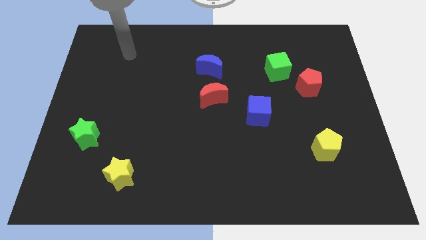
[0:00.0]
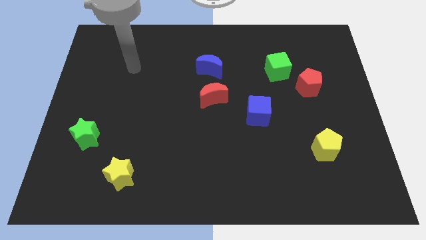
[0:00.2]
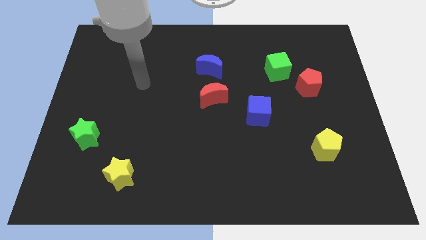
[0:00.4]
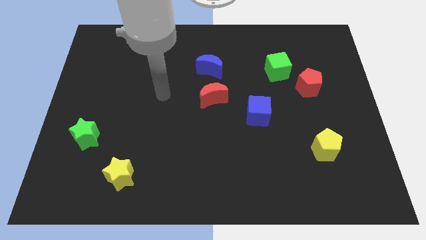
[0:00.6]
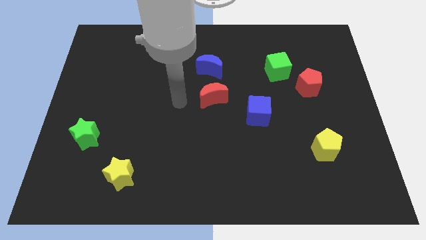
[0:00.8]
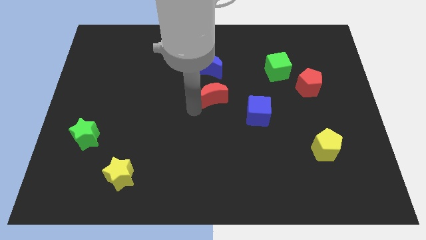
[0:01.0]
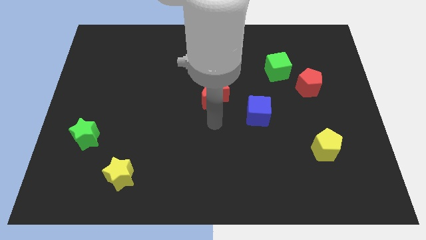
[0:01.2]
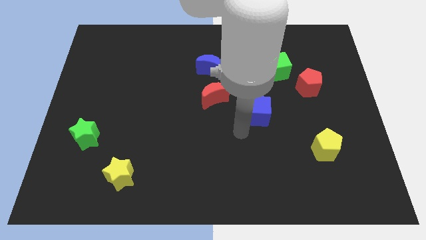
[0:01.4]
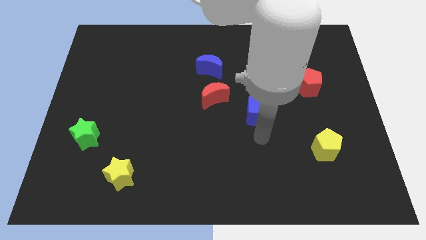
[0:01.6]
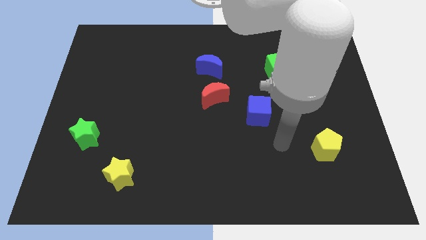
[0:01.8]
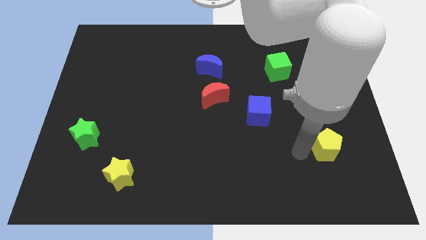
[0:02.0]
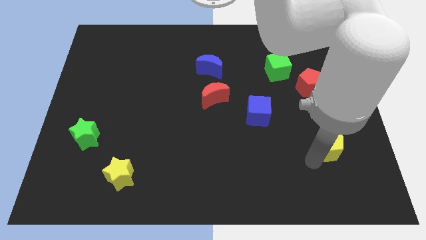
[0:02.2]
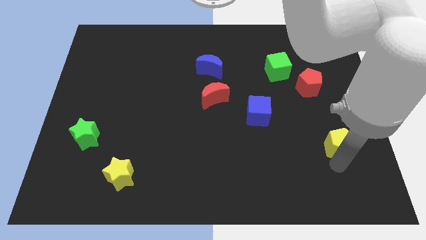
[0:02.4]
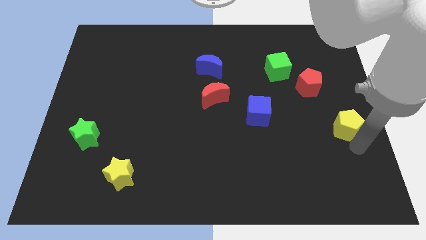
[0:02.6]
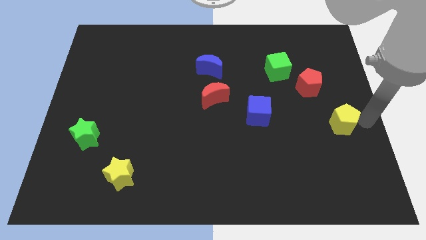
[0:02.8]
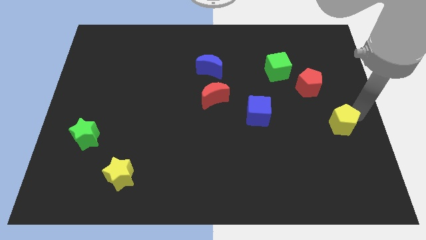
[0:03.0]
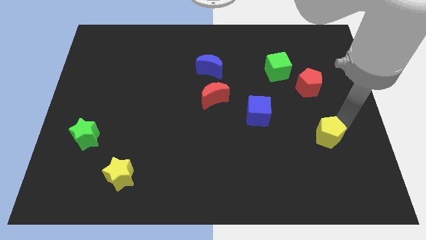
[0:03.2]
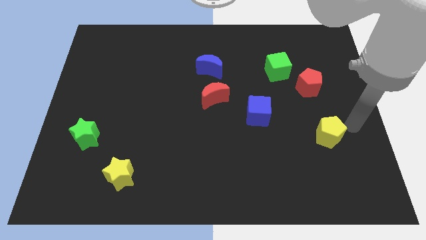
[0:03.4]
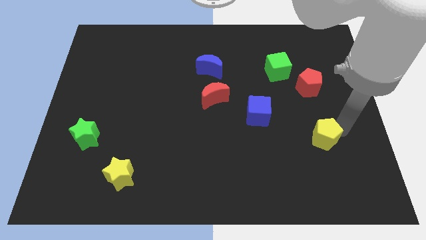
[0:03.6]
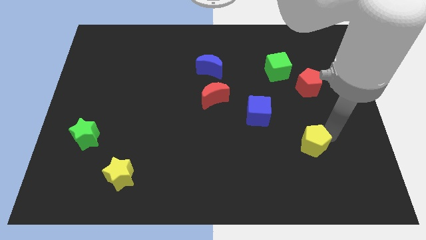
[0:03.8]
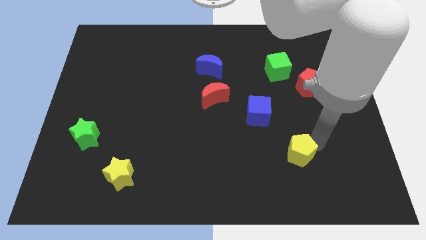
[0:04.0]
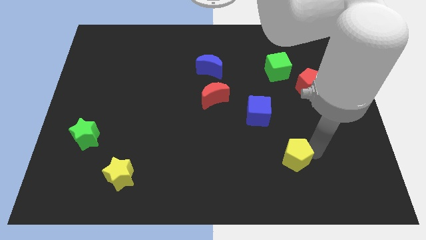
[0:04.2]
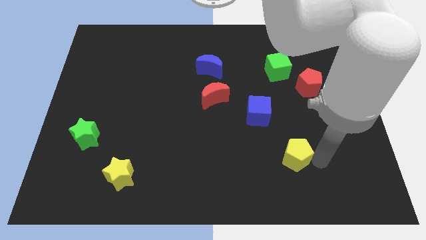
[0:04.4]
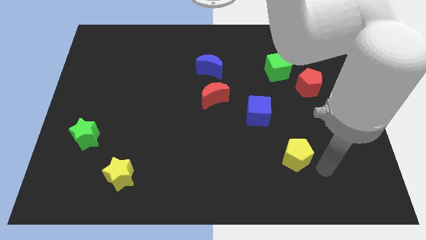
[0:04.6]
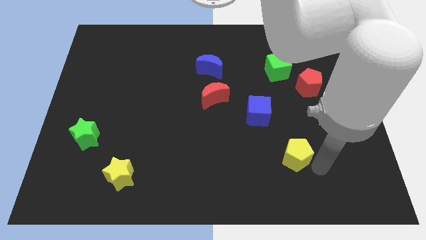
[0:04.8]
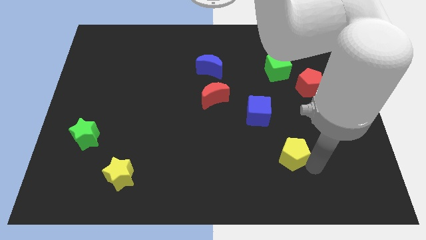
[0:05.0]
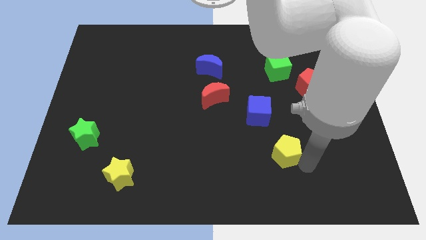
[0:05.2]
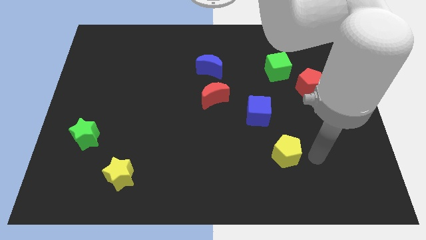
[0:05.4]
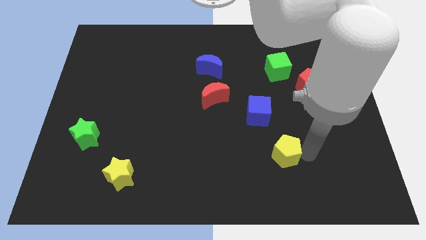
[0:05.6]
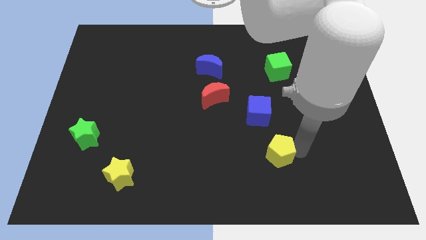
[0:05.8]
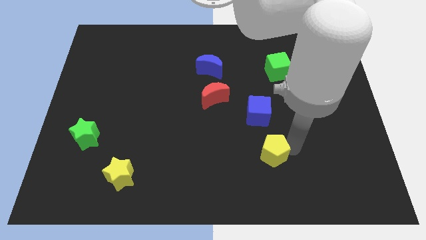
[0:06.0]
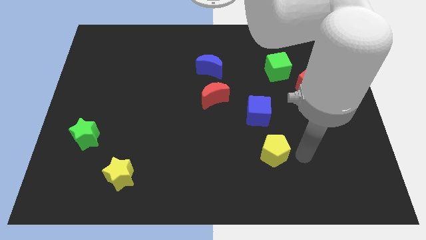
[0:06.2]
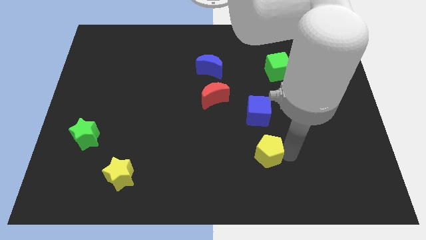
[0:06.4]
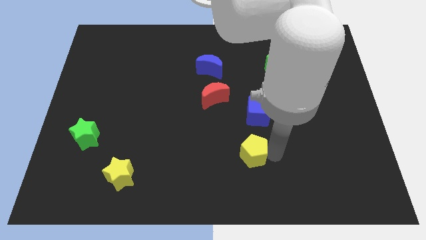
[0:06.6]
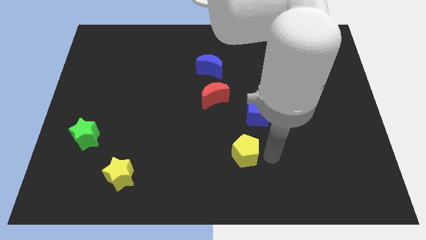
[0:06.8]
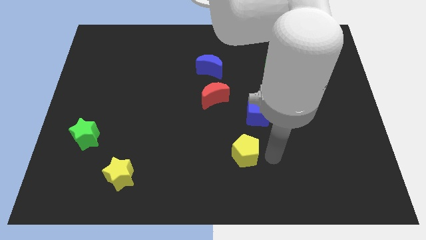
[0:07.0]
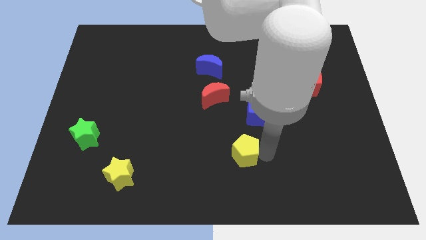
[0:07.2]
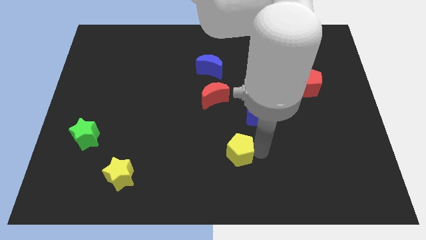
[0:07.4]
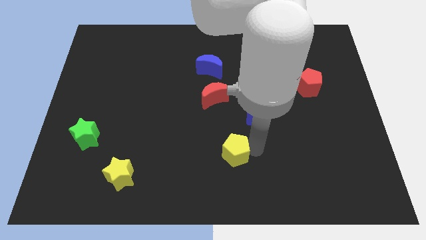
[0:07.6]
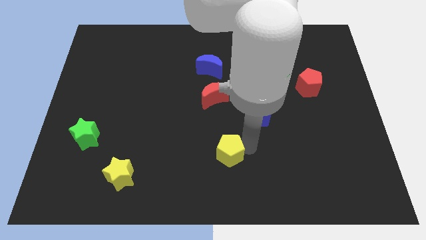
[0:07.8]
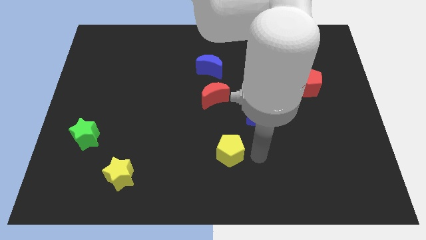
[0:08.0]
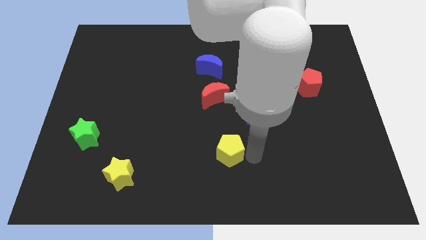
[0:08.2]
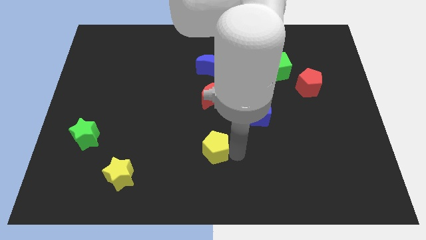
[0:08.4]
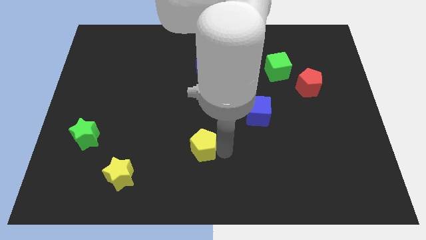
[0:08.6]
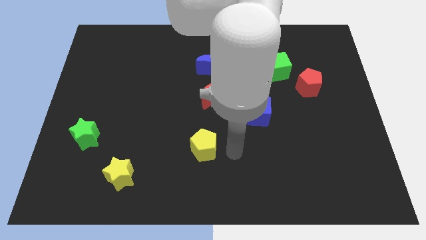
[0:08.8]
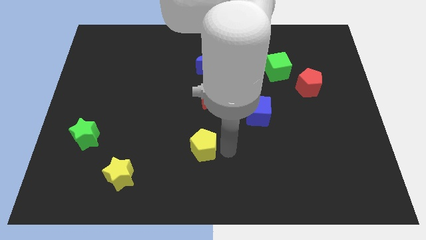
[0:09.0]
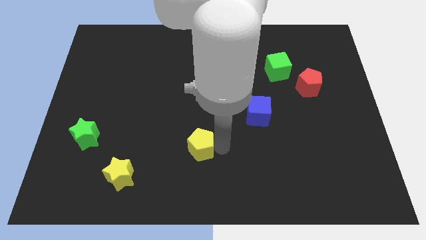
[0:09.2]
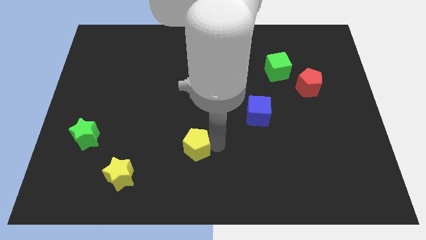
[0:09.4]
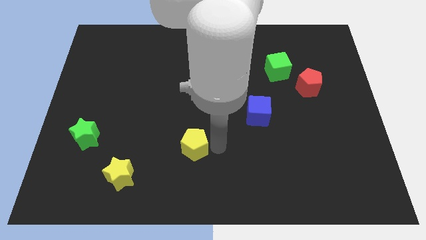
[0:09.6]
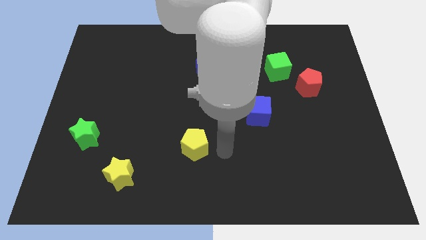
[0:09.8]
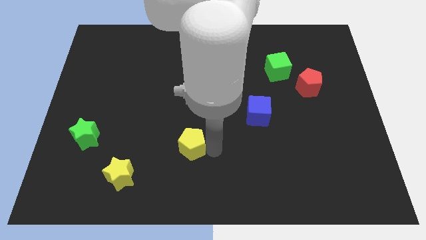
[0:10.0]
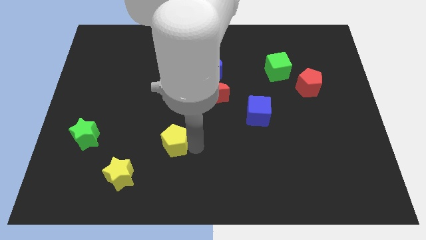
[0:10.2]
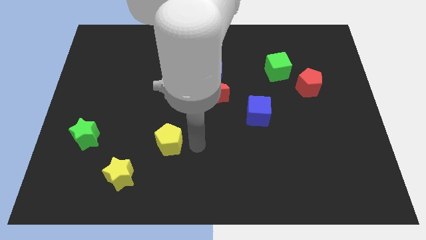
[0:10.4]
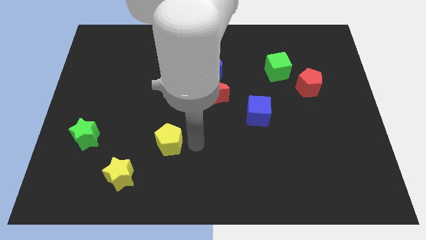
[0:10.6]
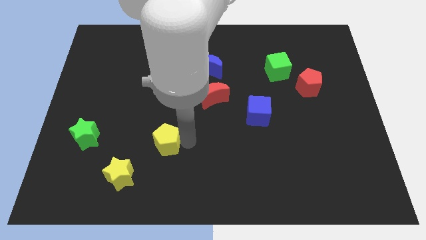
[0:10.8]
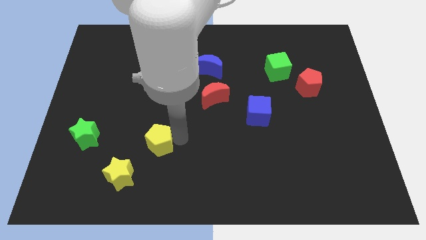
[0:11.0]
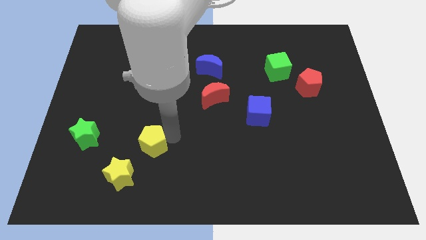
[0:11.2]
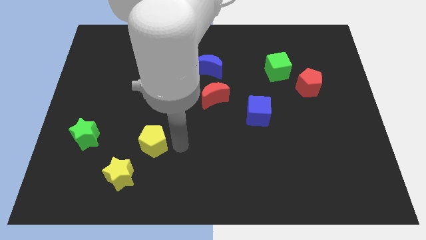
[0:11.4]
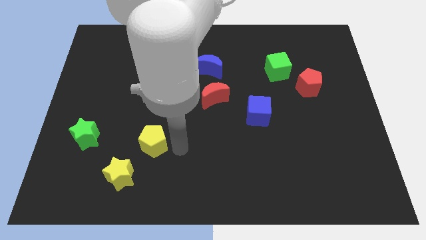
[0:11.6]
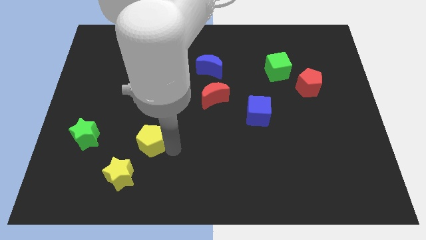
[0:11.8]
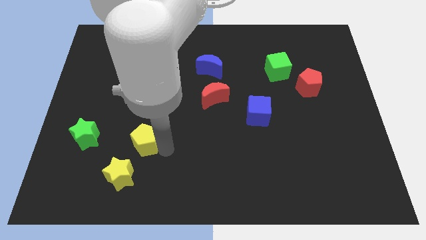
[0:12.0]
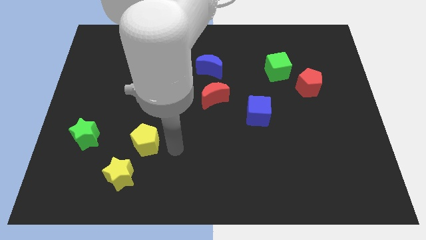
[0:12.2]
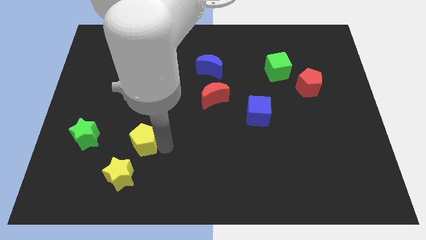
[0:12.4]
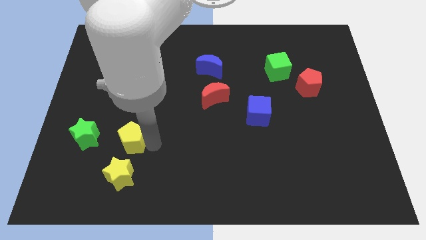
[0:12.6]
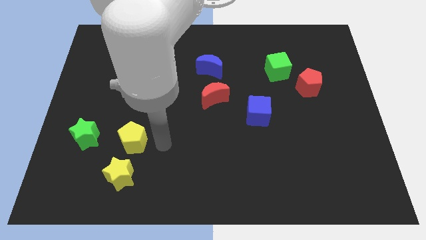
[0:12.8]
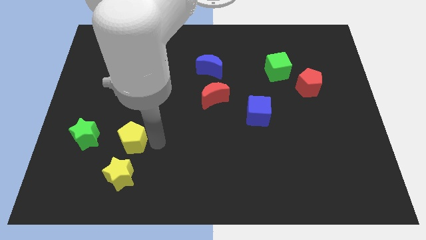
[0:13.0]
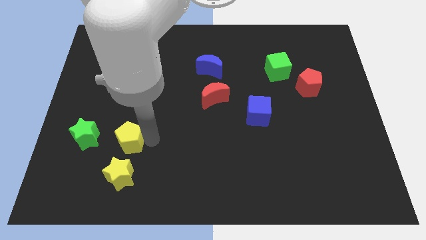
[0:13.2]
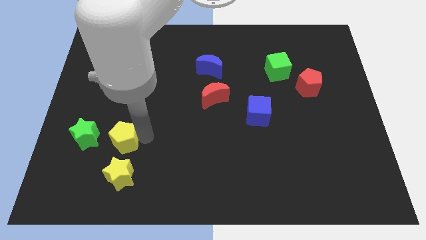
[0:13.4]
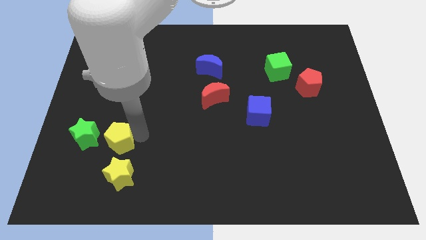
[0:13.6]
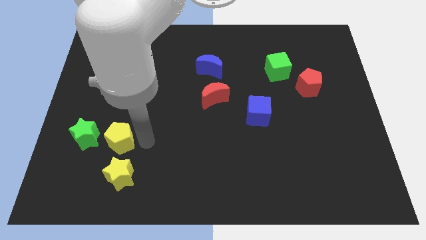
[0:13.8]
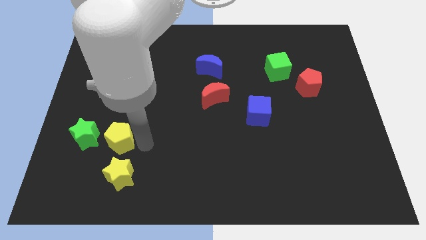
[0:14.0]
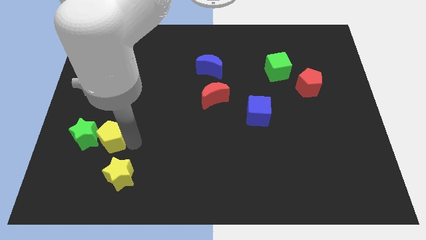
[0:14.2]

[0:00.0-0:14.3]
move the yellow pentagon next to the green star

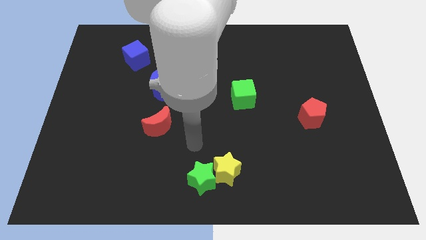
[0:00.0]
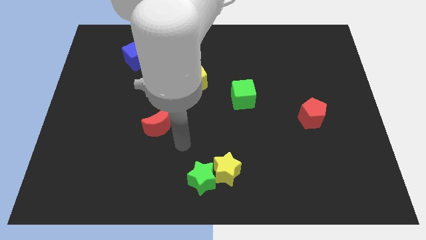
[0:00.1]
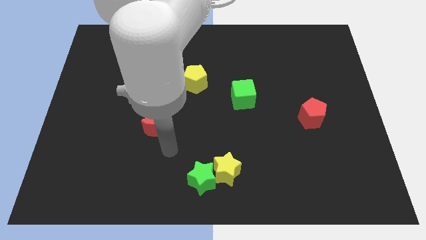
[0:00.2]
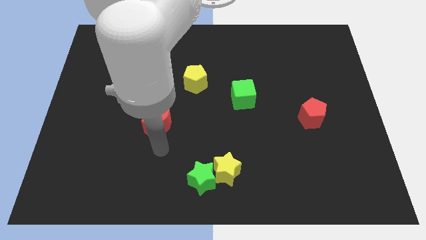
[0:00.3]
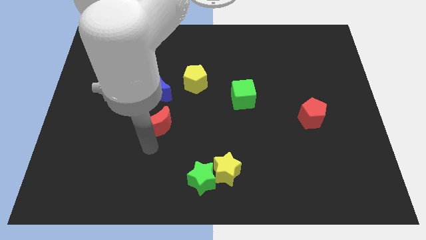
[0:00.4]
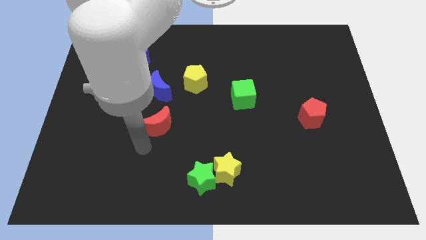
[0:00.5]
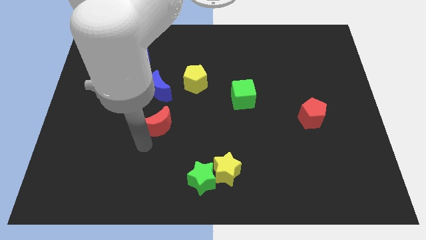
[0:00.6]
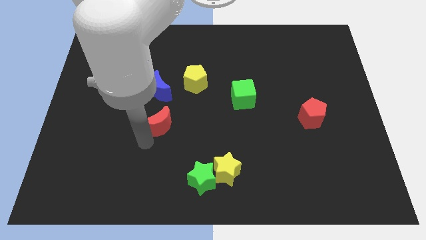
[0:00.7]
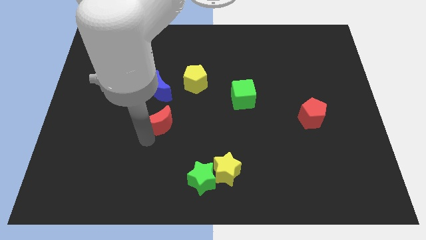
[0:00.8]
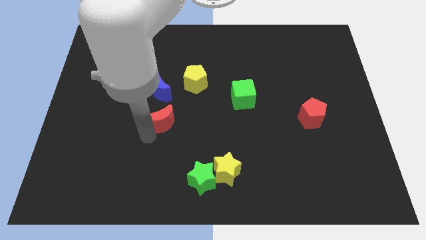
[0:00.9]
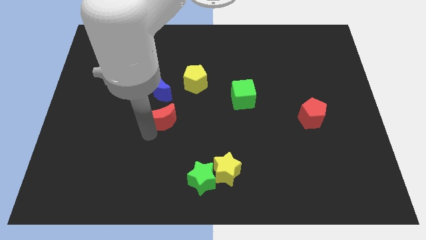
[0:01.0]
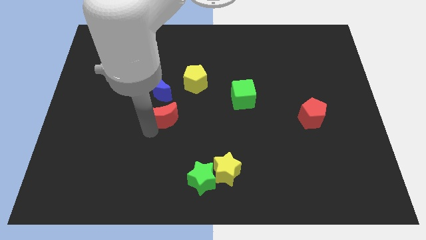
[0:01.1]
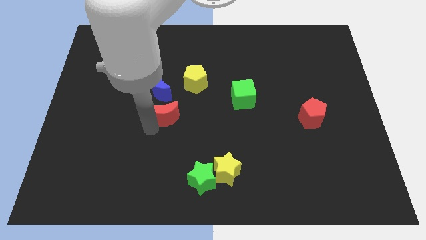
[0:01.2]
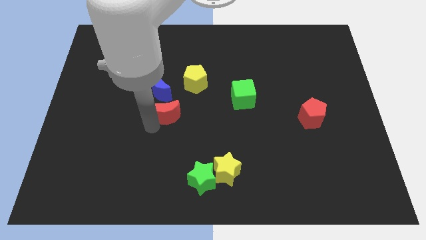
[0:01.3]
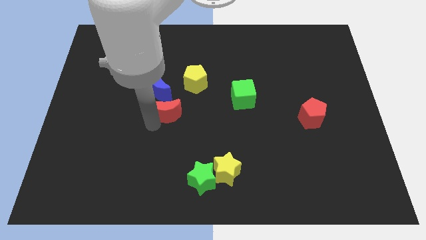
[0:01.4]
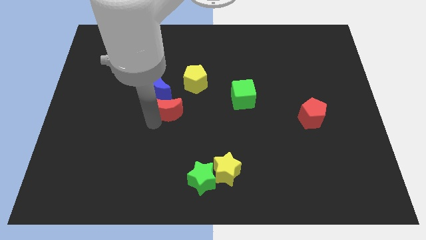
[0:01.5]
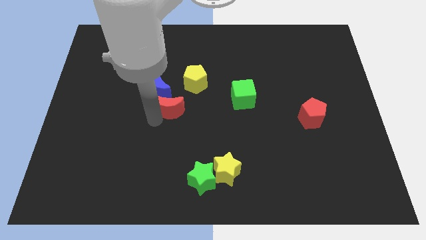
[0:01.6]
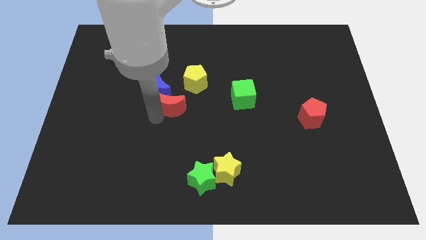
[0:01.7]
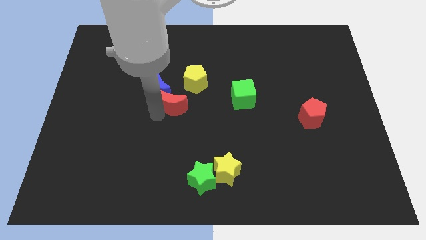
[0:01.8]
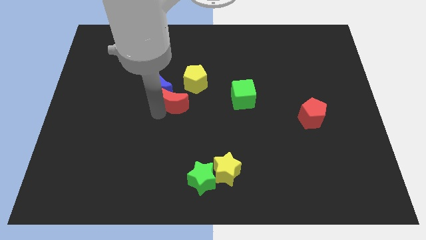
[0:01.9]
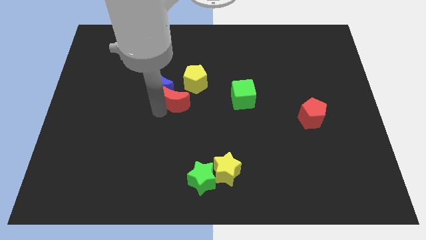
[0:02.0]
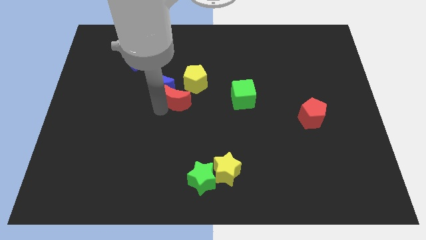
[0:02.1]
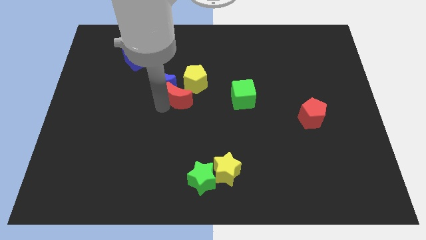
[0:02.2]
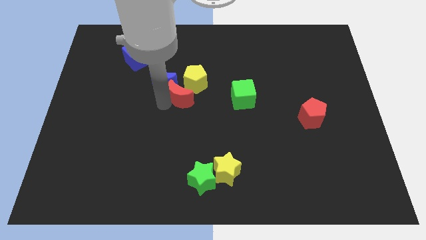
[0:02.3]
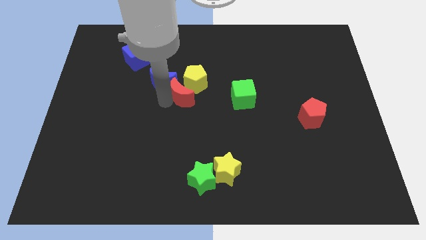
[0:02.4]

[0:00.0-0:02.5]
slide the red moon to the yellow pentagon
